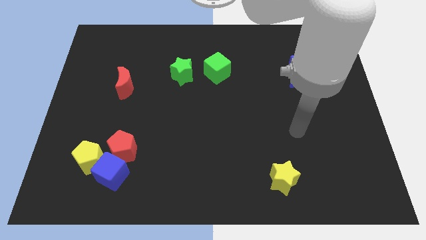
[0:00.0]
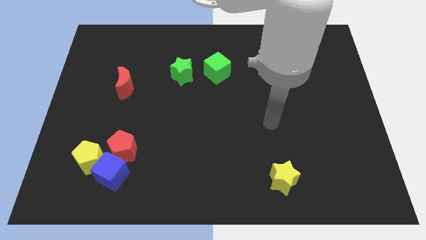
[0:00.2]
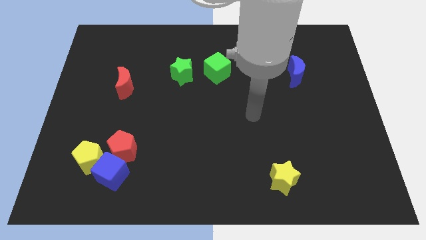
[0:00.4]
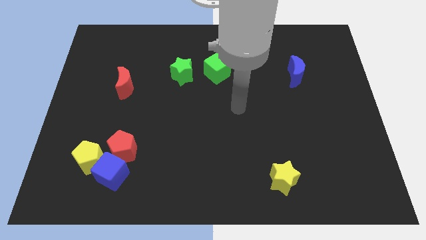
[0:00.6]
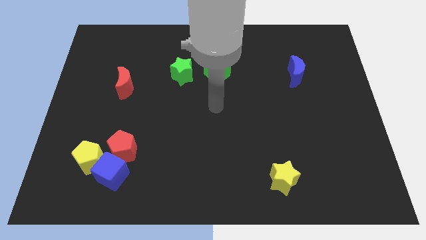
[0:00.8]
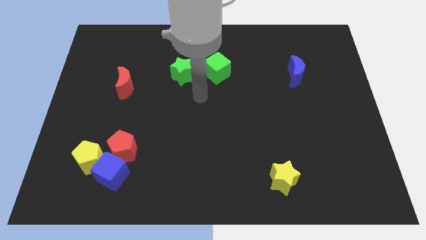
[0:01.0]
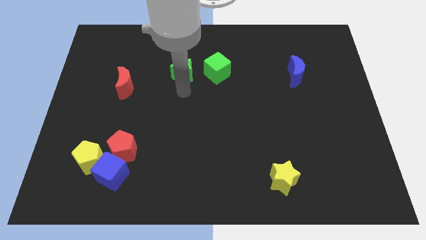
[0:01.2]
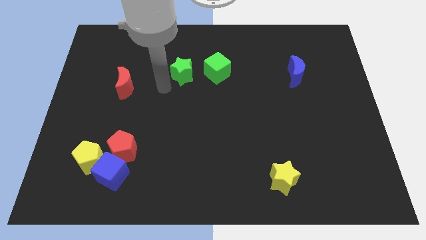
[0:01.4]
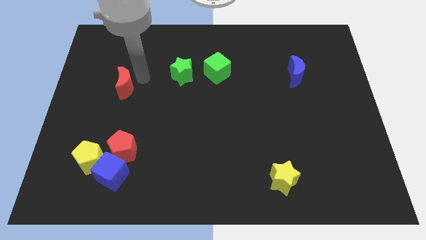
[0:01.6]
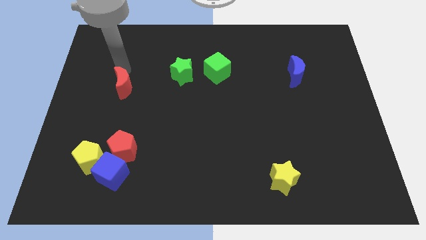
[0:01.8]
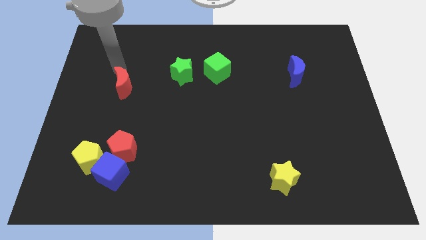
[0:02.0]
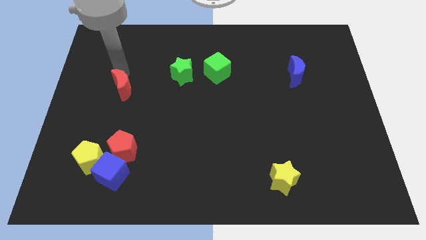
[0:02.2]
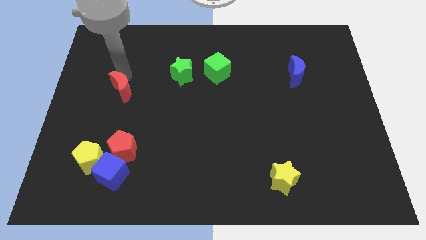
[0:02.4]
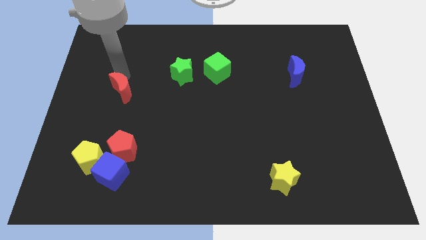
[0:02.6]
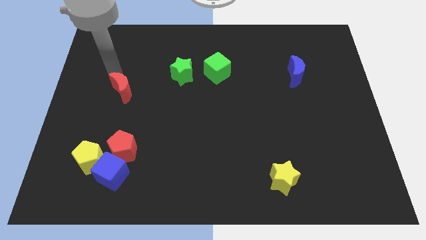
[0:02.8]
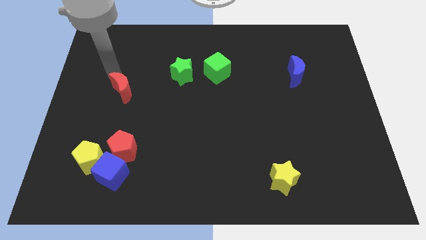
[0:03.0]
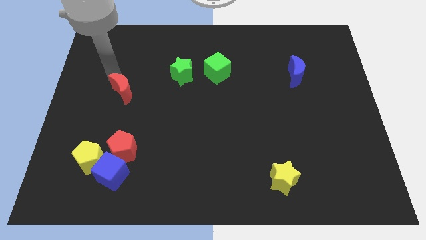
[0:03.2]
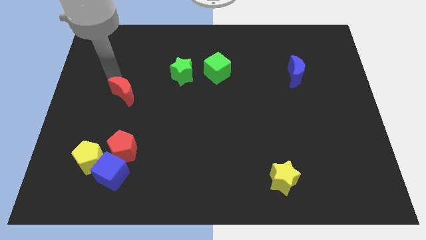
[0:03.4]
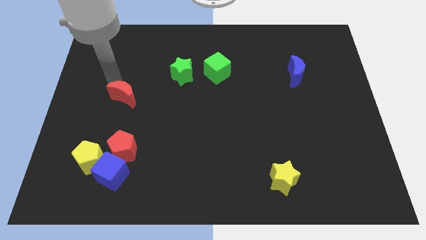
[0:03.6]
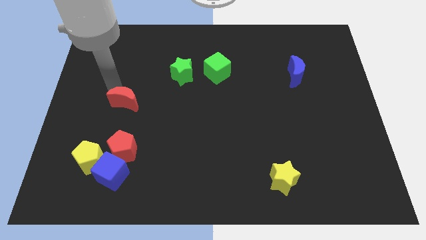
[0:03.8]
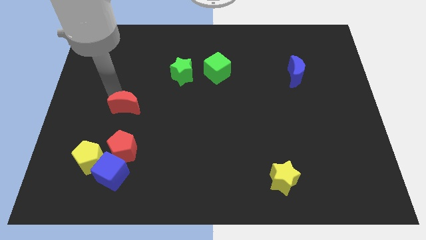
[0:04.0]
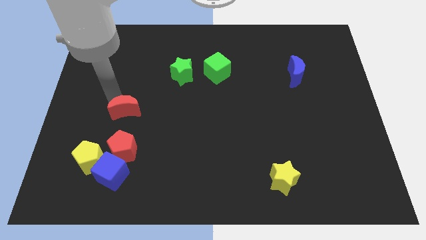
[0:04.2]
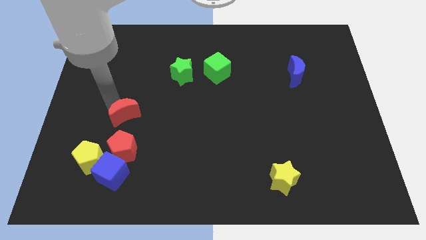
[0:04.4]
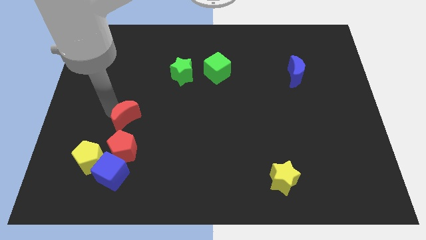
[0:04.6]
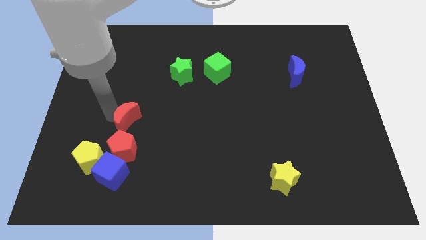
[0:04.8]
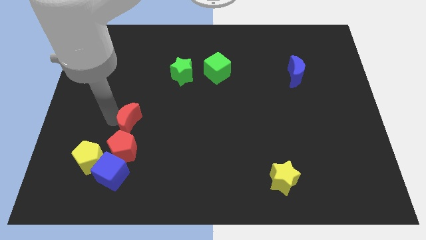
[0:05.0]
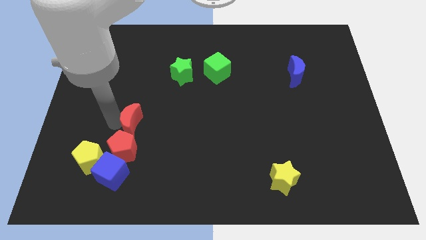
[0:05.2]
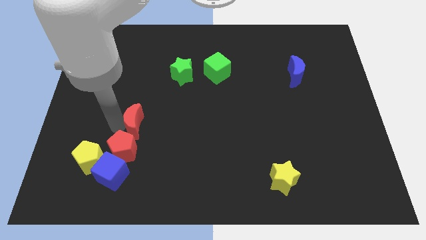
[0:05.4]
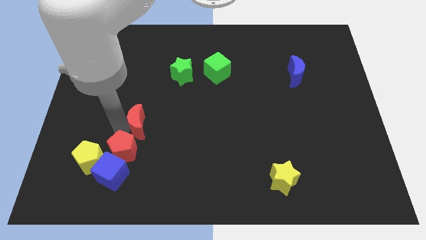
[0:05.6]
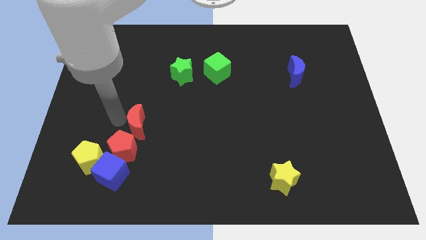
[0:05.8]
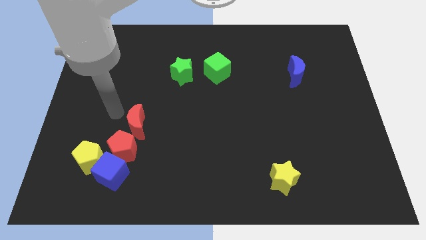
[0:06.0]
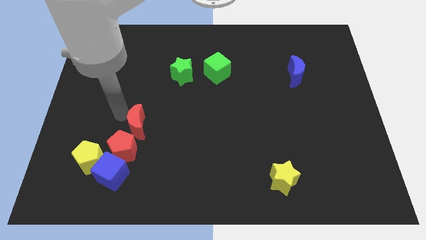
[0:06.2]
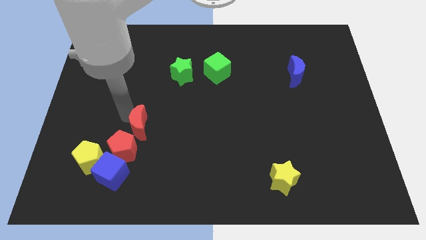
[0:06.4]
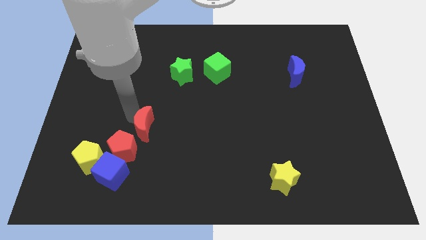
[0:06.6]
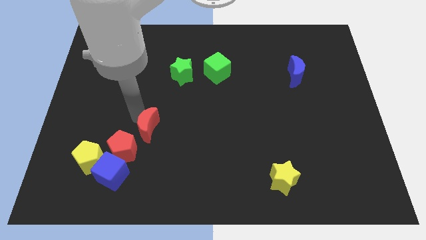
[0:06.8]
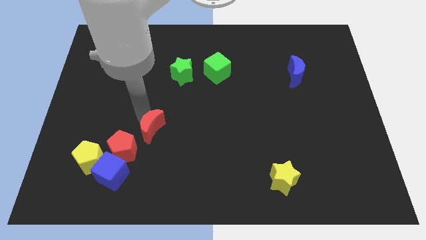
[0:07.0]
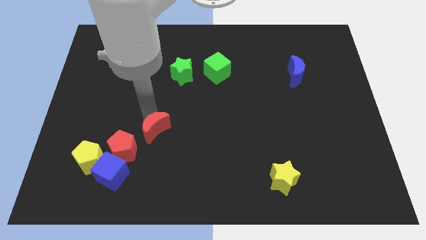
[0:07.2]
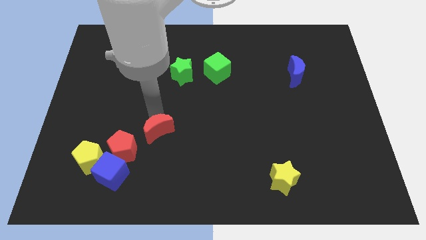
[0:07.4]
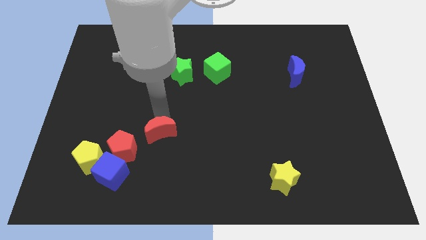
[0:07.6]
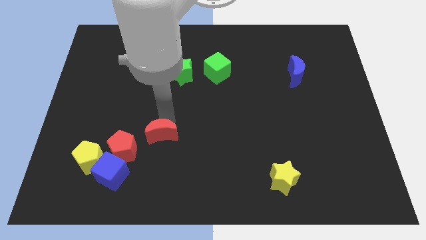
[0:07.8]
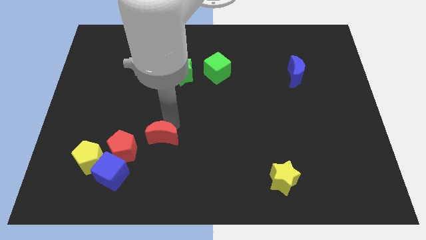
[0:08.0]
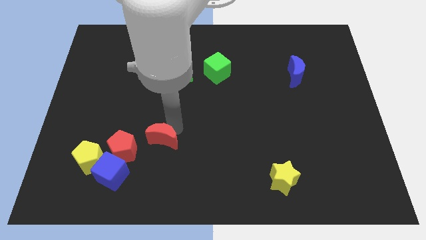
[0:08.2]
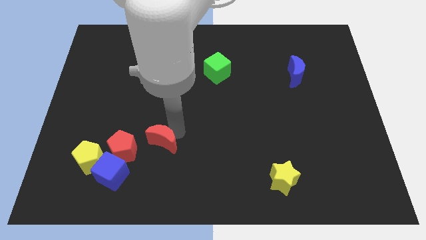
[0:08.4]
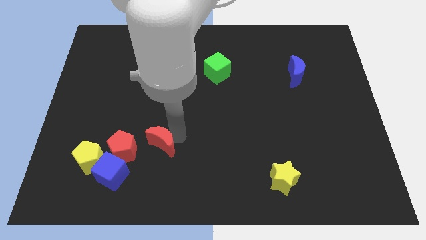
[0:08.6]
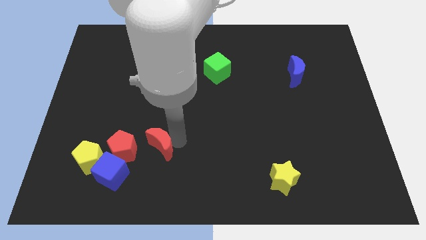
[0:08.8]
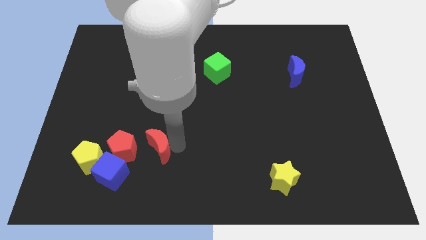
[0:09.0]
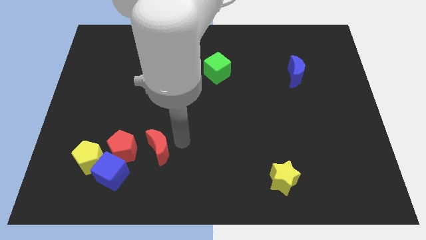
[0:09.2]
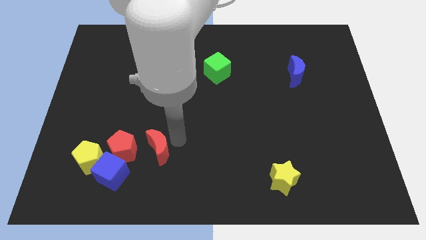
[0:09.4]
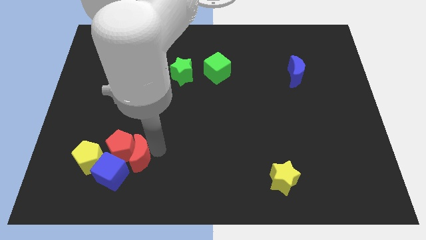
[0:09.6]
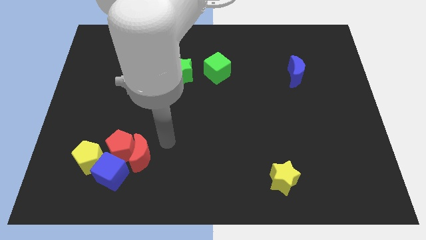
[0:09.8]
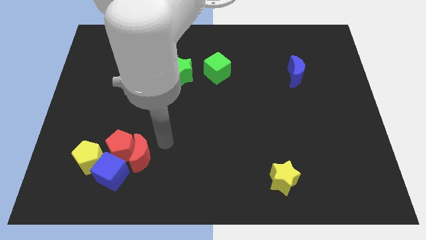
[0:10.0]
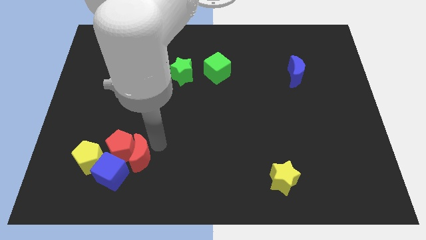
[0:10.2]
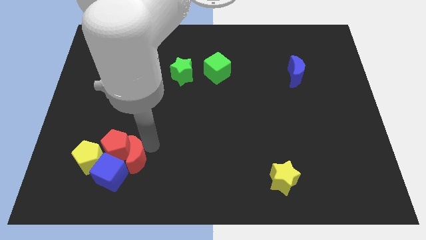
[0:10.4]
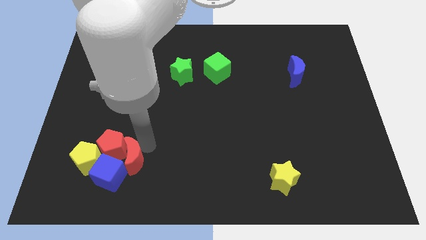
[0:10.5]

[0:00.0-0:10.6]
move the red moon towards the blue cube

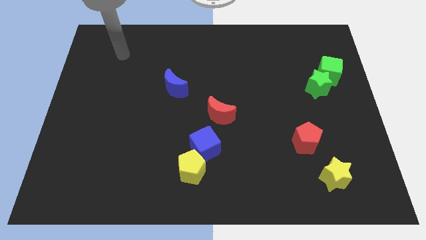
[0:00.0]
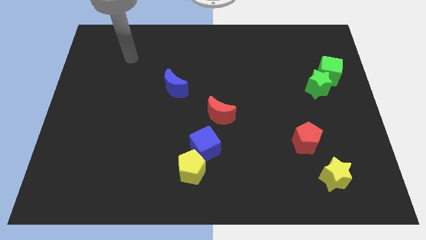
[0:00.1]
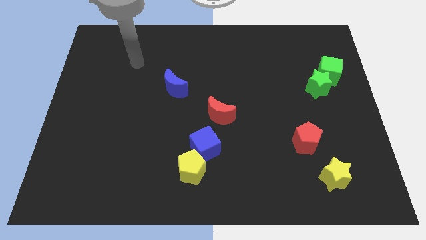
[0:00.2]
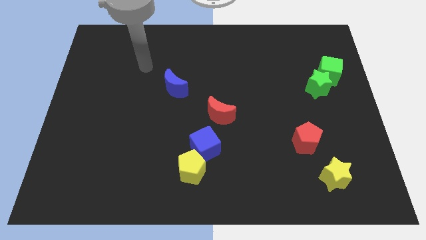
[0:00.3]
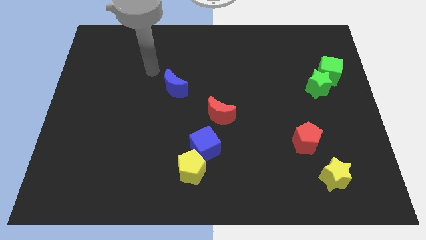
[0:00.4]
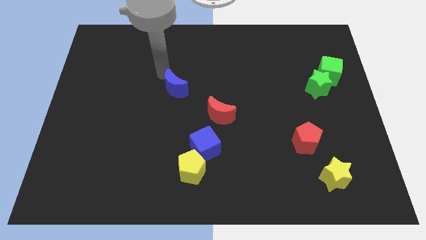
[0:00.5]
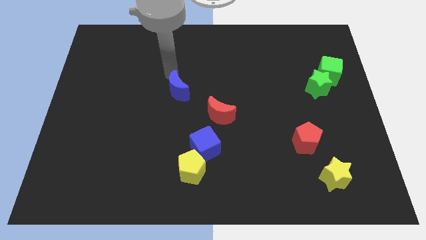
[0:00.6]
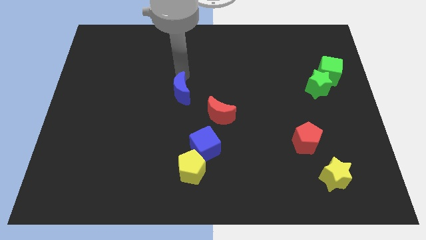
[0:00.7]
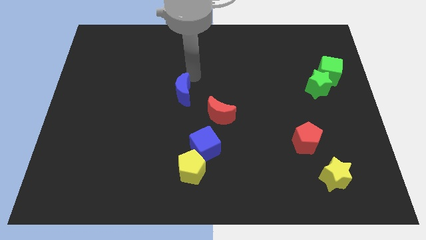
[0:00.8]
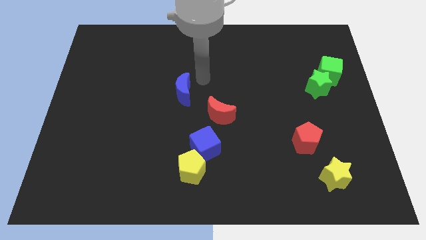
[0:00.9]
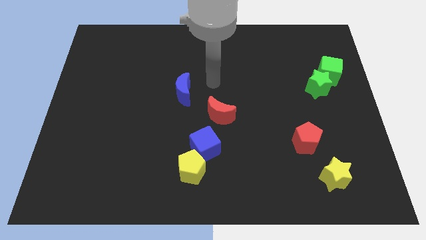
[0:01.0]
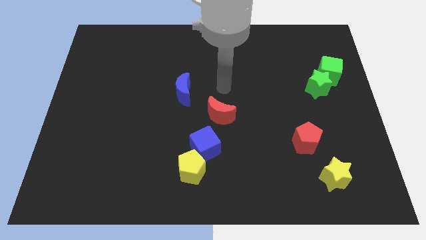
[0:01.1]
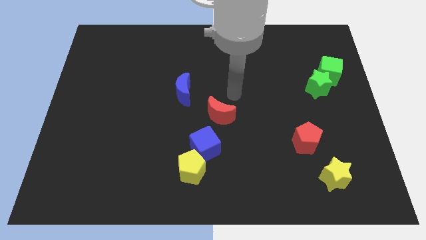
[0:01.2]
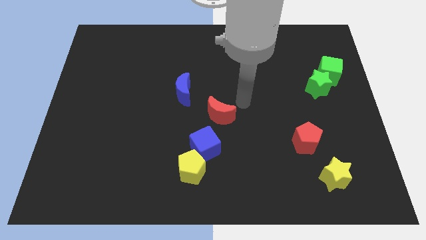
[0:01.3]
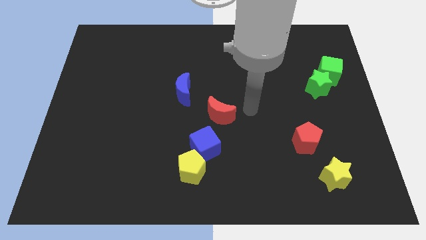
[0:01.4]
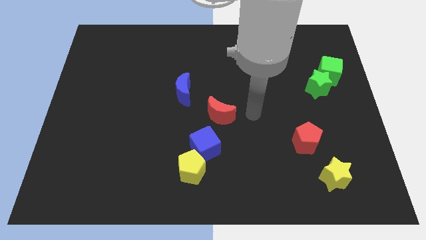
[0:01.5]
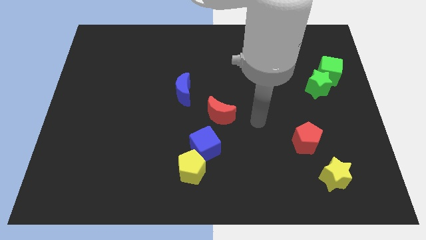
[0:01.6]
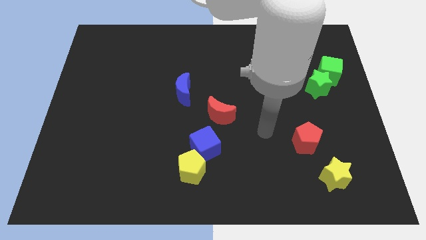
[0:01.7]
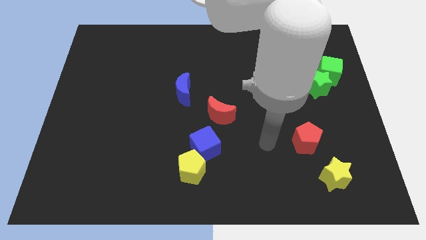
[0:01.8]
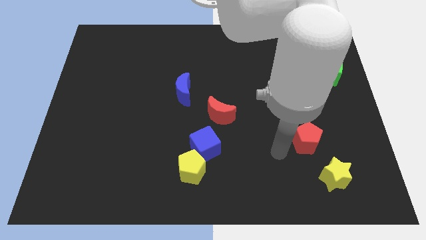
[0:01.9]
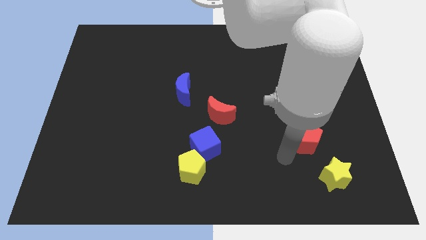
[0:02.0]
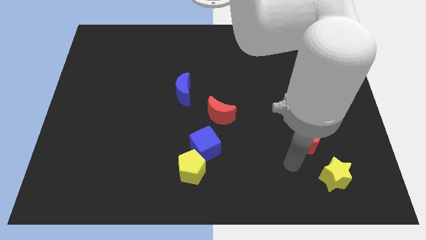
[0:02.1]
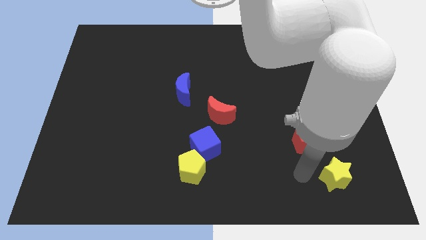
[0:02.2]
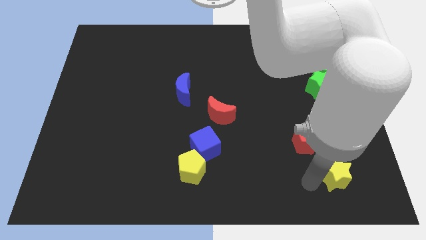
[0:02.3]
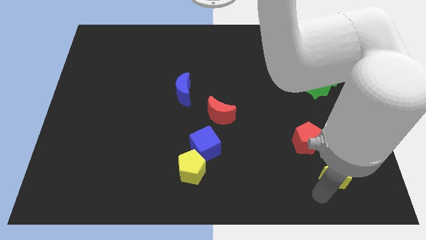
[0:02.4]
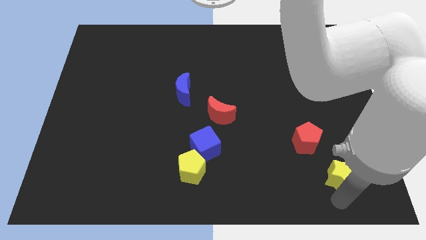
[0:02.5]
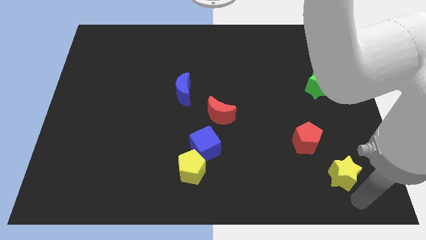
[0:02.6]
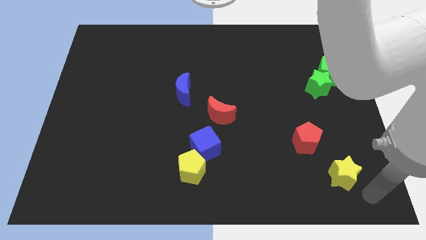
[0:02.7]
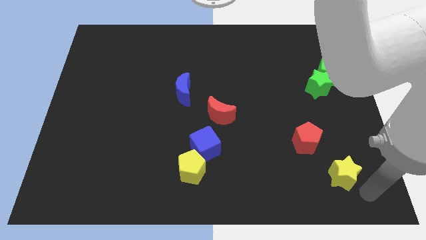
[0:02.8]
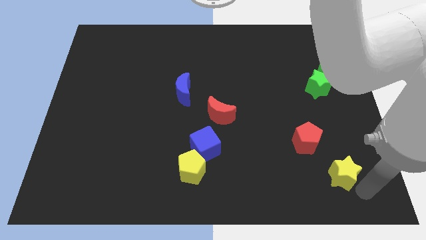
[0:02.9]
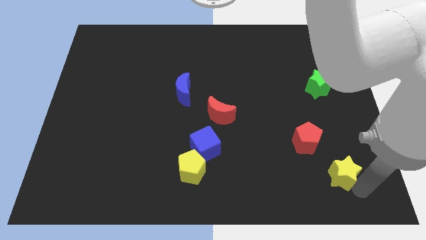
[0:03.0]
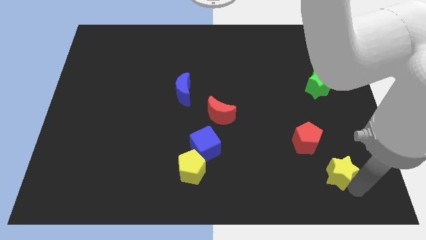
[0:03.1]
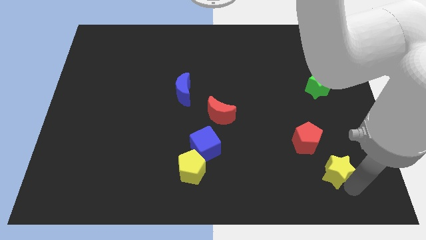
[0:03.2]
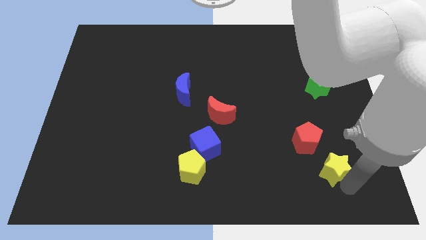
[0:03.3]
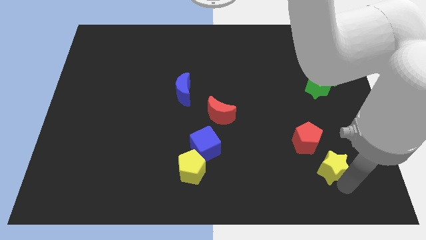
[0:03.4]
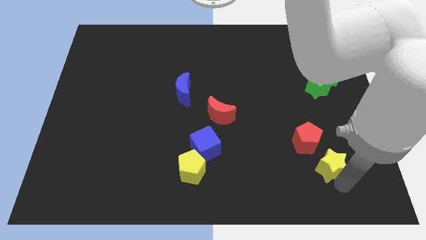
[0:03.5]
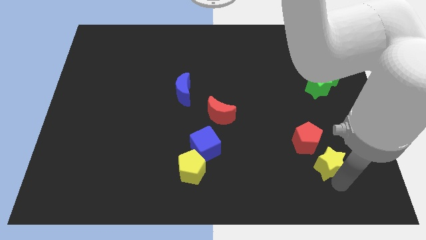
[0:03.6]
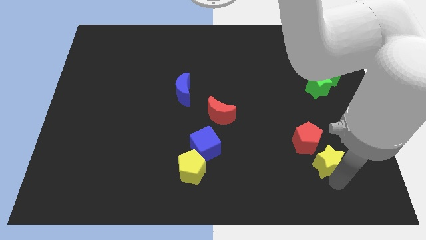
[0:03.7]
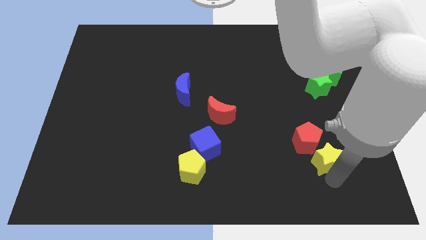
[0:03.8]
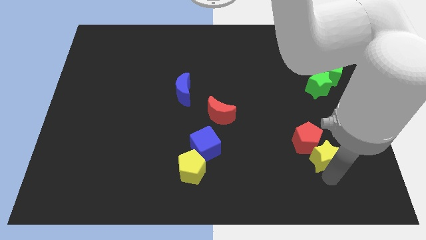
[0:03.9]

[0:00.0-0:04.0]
put the yellow star to the red pentagon
